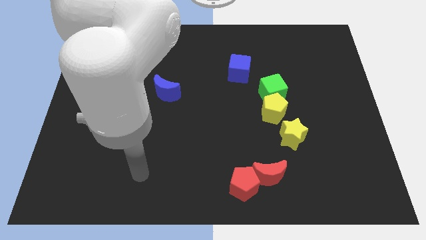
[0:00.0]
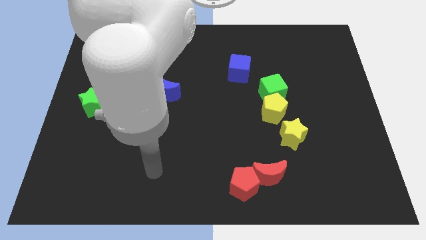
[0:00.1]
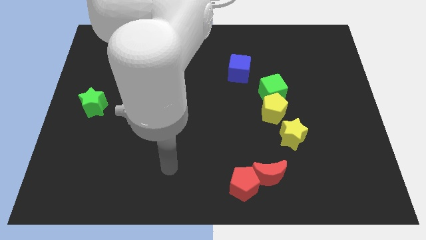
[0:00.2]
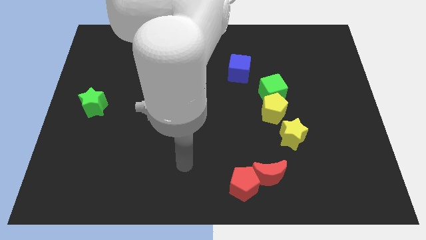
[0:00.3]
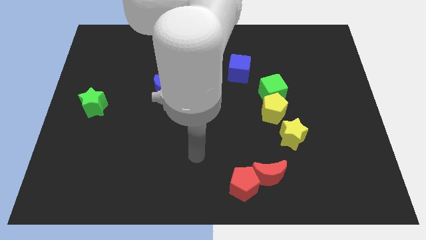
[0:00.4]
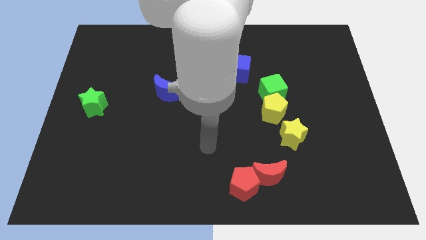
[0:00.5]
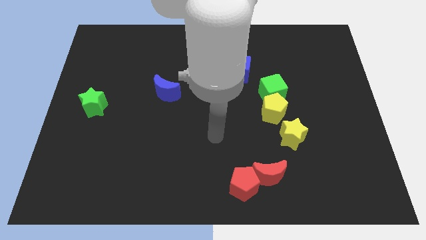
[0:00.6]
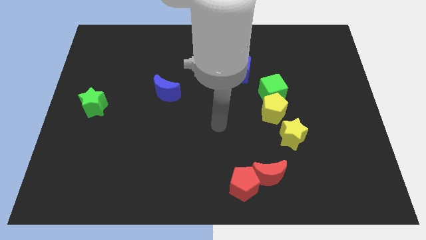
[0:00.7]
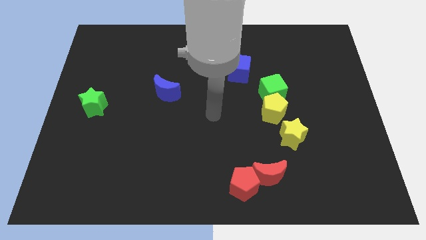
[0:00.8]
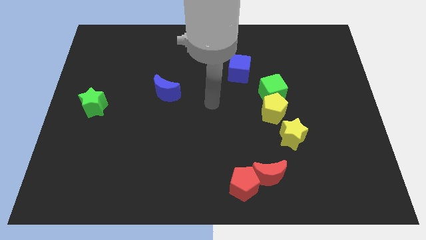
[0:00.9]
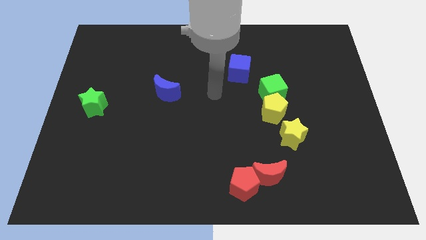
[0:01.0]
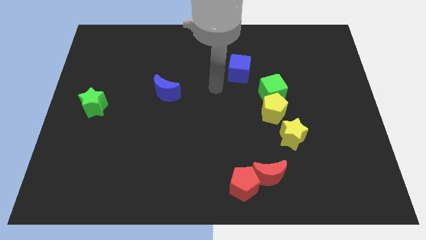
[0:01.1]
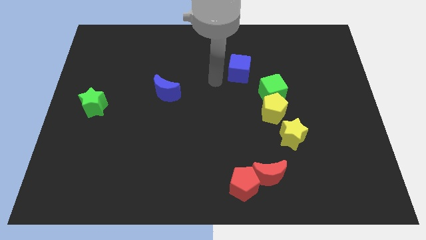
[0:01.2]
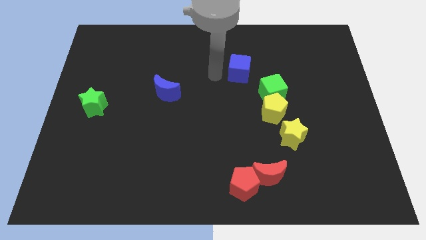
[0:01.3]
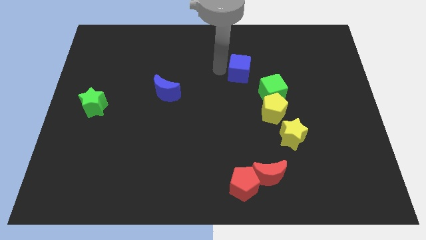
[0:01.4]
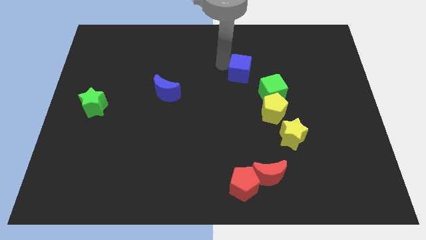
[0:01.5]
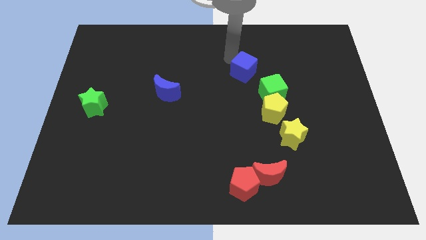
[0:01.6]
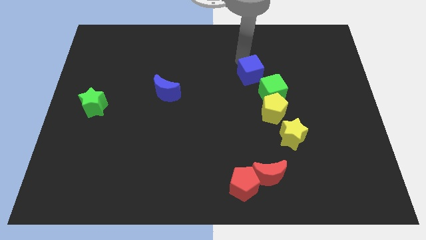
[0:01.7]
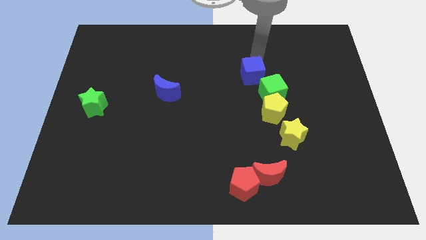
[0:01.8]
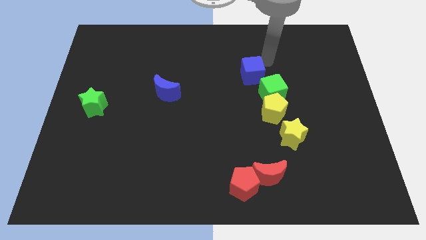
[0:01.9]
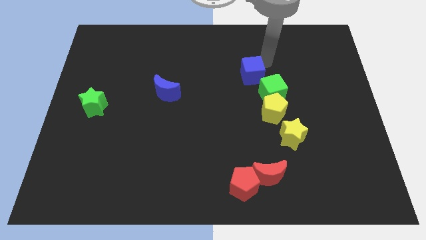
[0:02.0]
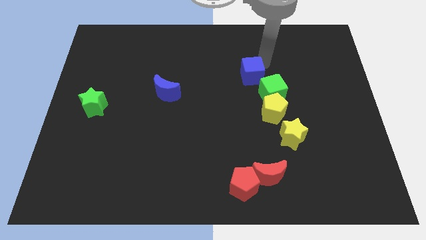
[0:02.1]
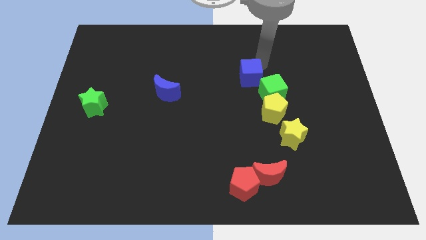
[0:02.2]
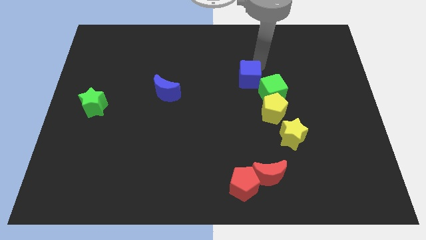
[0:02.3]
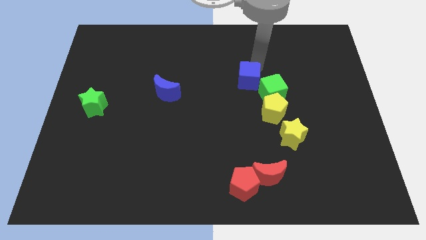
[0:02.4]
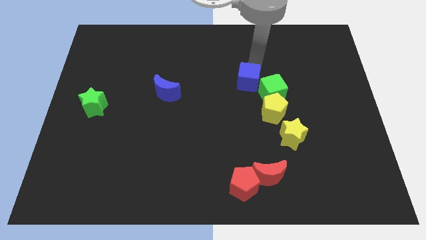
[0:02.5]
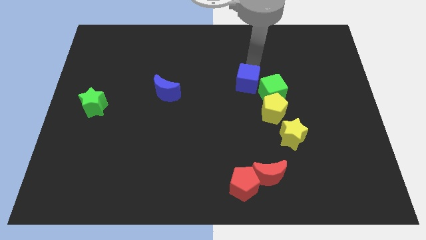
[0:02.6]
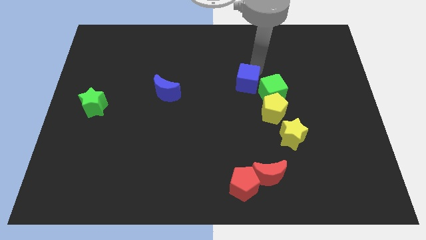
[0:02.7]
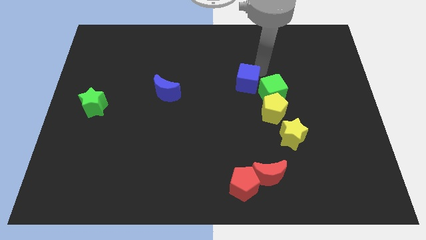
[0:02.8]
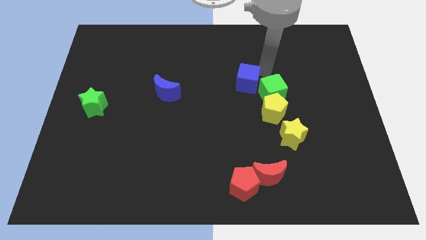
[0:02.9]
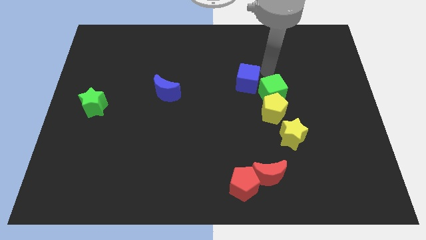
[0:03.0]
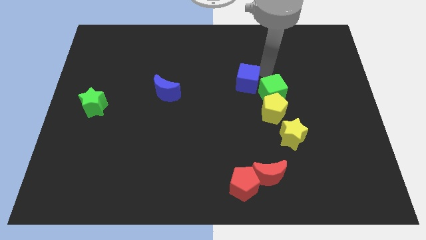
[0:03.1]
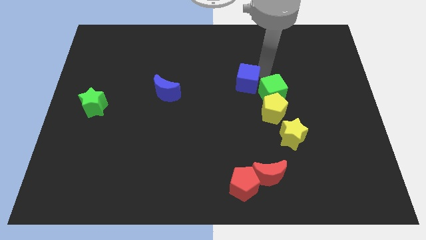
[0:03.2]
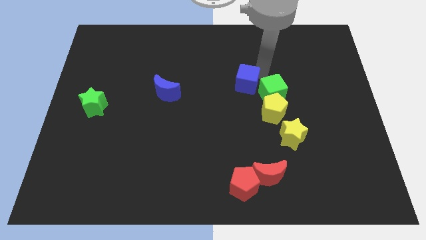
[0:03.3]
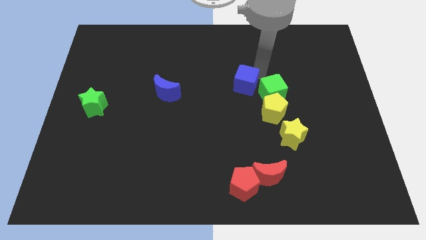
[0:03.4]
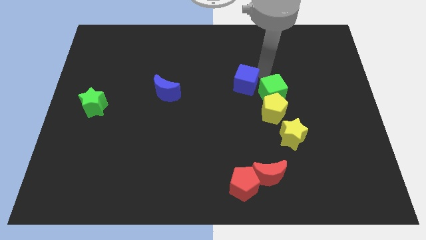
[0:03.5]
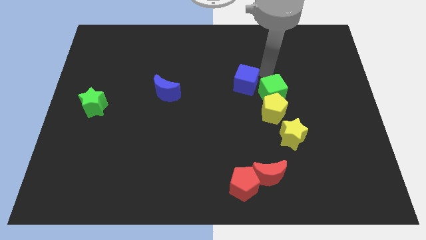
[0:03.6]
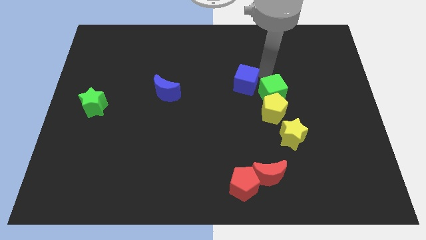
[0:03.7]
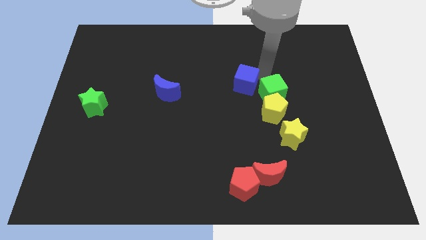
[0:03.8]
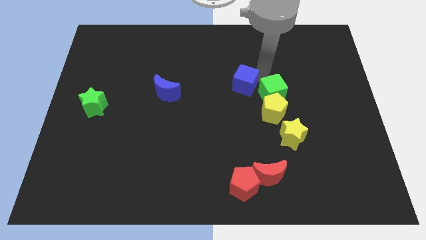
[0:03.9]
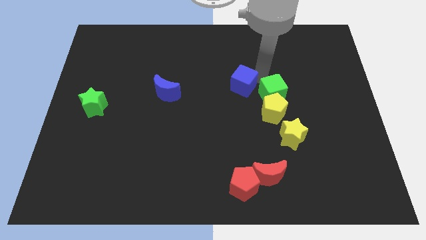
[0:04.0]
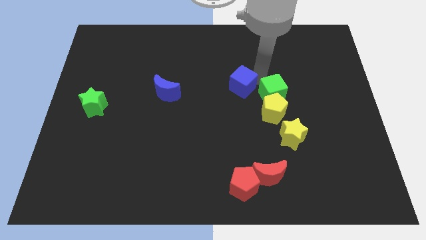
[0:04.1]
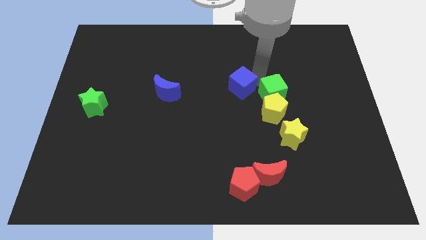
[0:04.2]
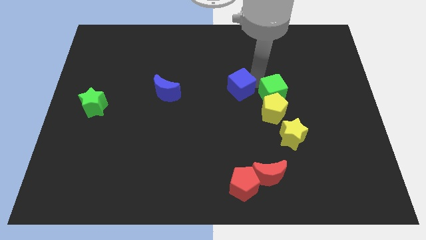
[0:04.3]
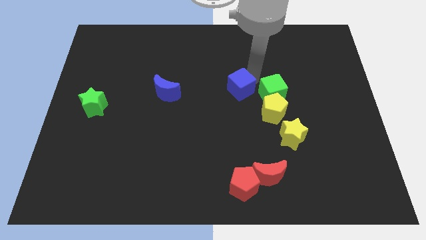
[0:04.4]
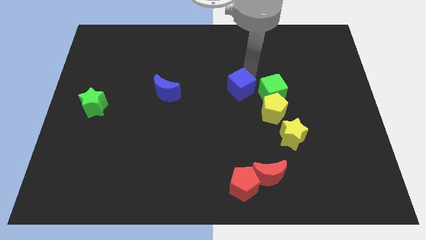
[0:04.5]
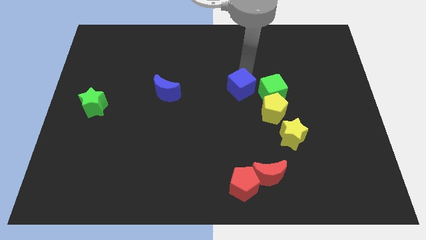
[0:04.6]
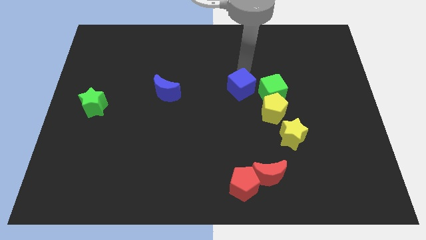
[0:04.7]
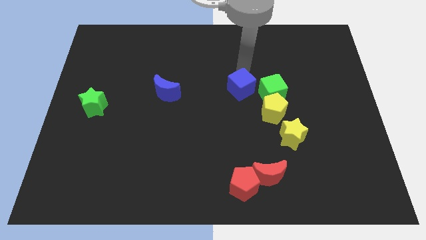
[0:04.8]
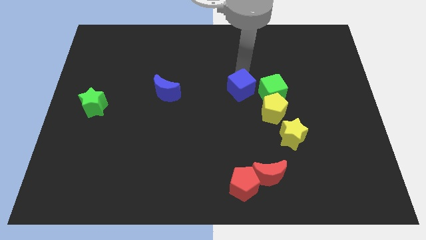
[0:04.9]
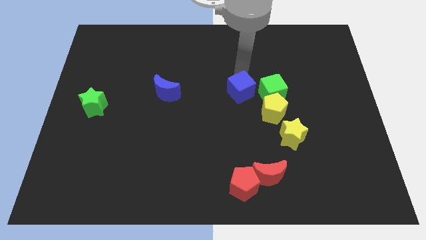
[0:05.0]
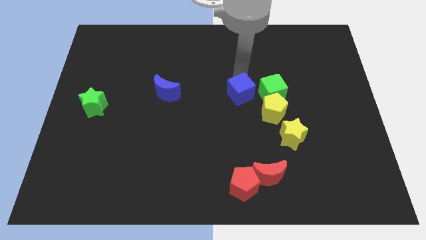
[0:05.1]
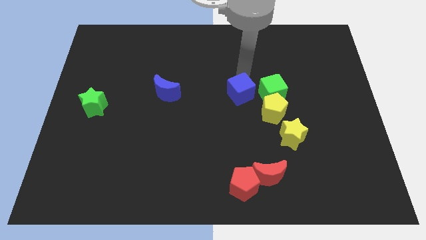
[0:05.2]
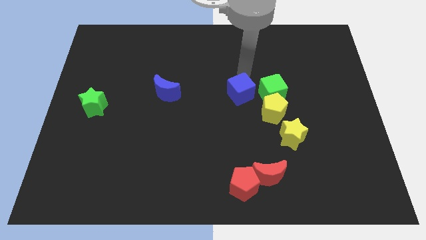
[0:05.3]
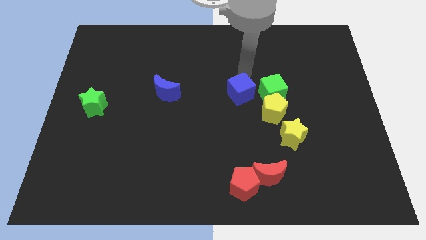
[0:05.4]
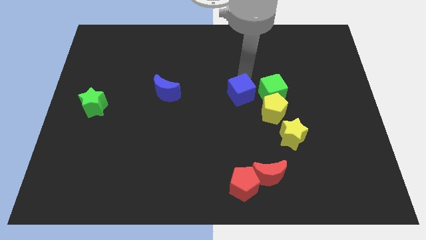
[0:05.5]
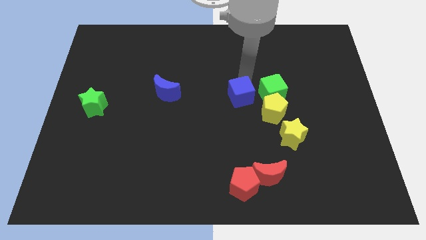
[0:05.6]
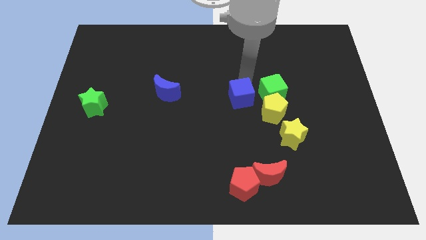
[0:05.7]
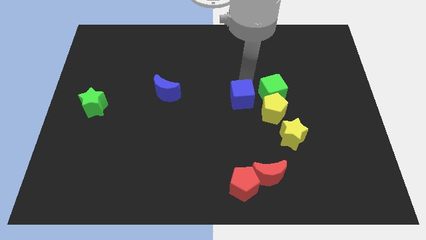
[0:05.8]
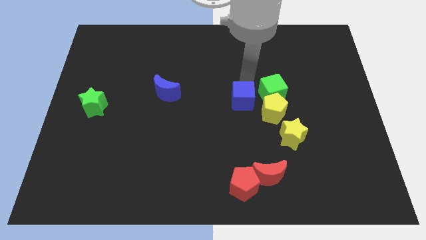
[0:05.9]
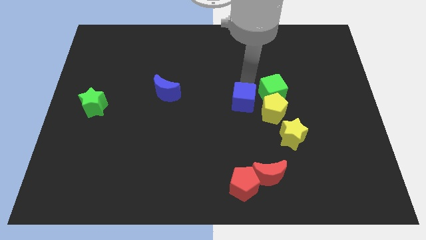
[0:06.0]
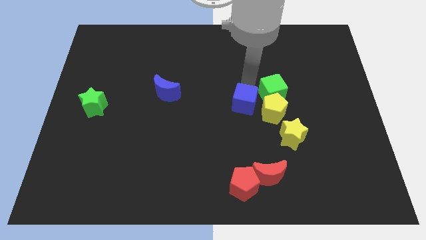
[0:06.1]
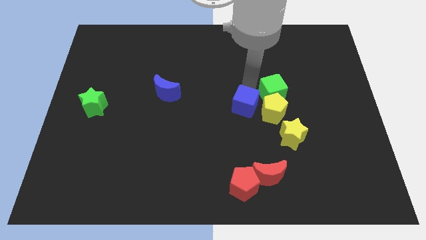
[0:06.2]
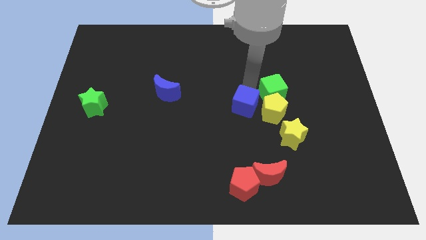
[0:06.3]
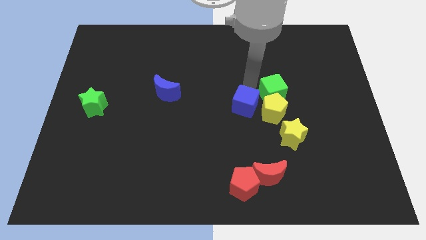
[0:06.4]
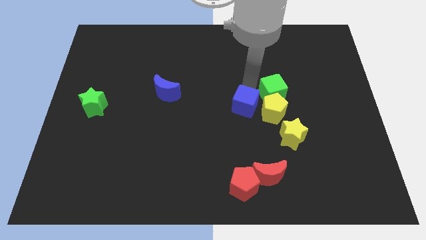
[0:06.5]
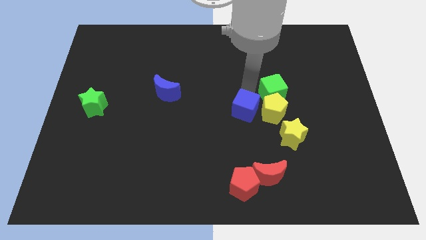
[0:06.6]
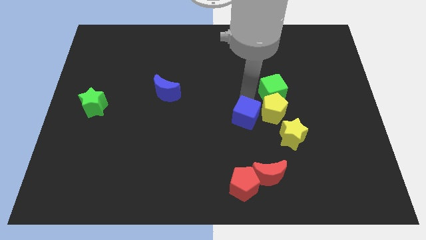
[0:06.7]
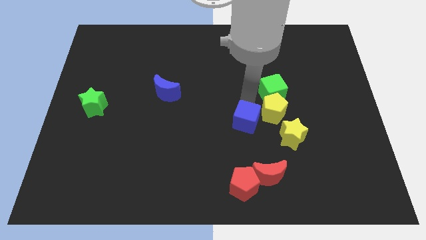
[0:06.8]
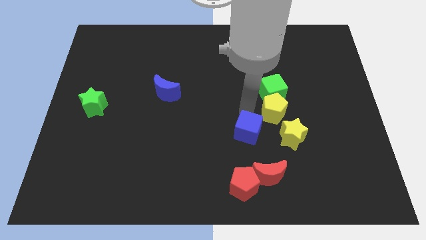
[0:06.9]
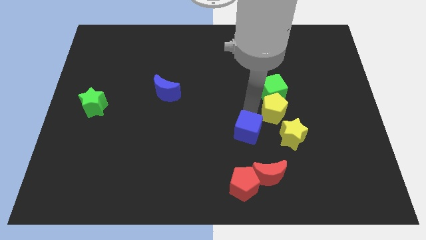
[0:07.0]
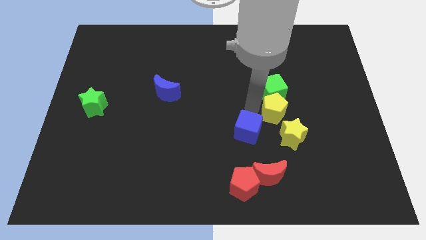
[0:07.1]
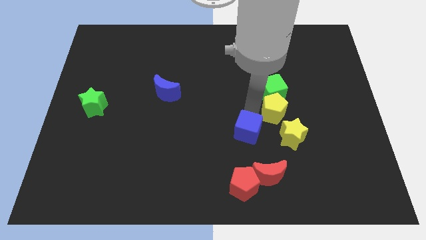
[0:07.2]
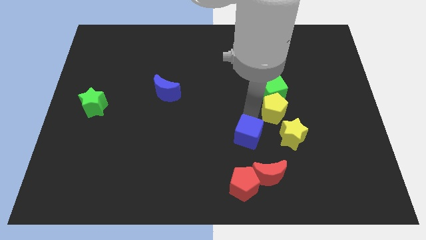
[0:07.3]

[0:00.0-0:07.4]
put the blue cube diagonally up and to the left of the red moon
